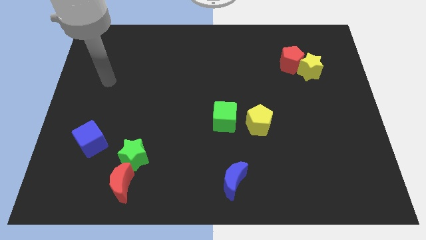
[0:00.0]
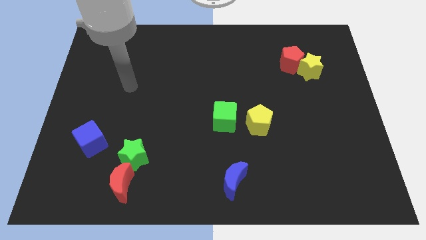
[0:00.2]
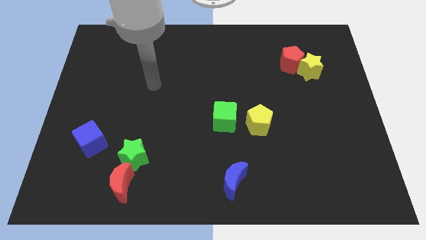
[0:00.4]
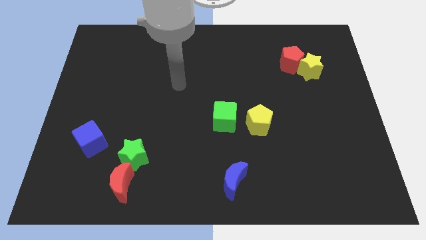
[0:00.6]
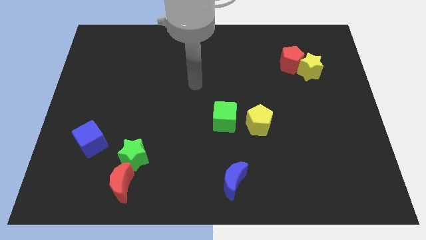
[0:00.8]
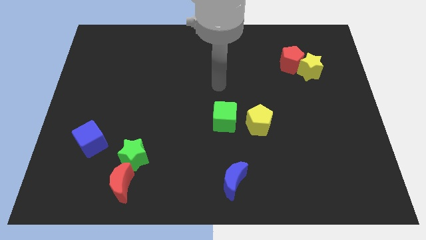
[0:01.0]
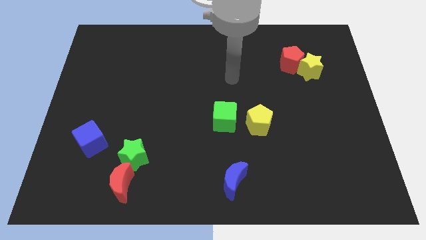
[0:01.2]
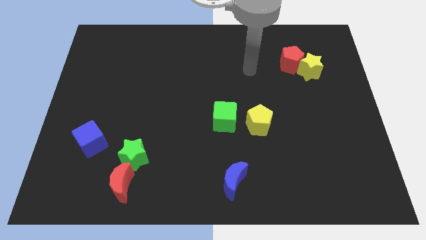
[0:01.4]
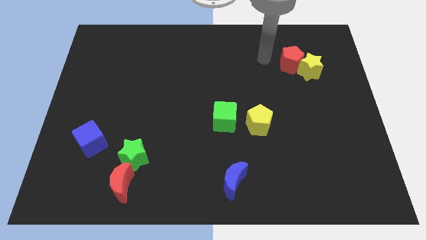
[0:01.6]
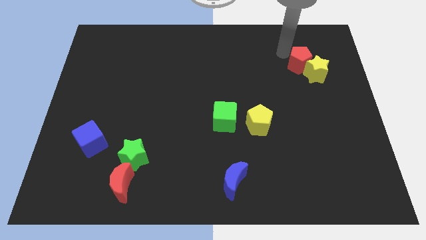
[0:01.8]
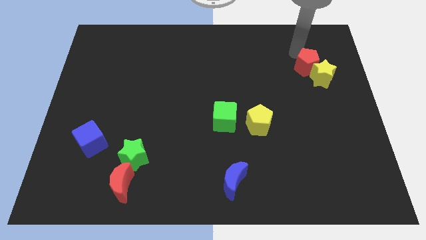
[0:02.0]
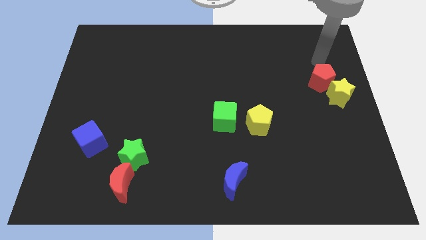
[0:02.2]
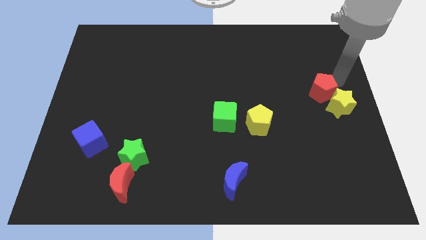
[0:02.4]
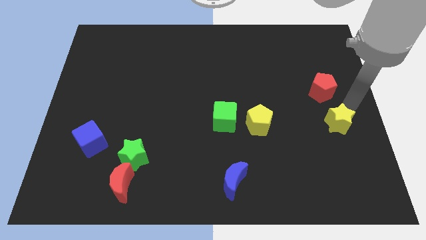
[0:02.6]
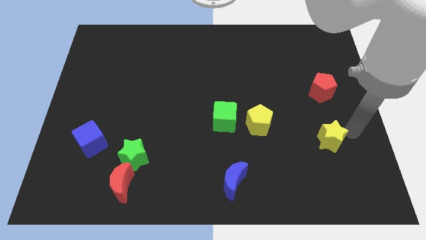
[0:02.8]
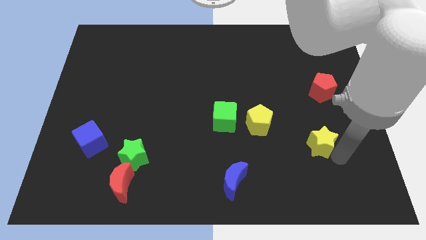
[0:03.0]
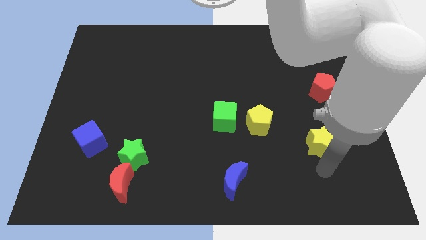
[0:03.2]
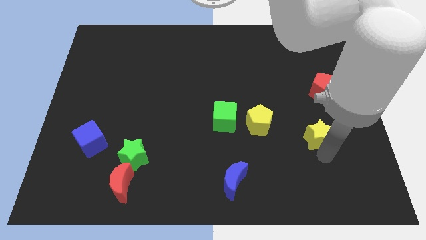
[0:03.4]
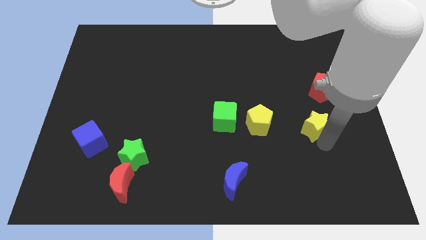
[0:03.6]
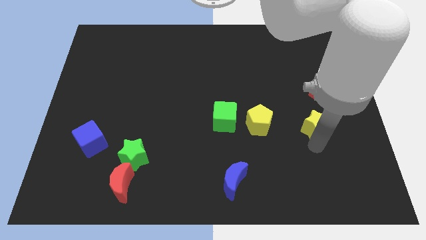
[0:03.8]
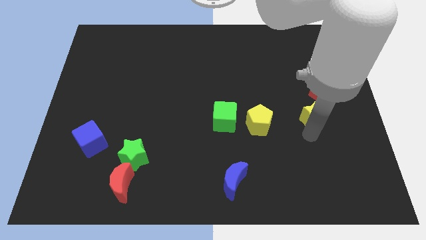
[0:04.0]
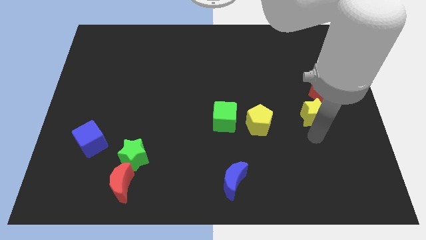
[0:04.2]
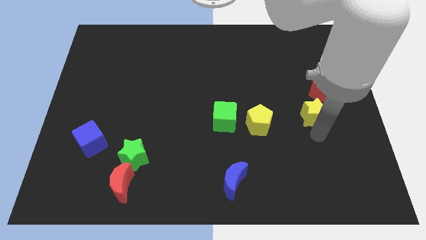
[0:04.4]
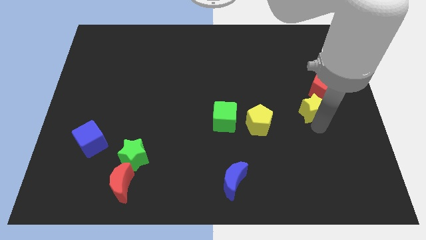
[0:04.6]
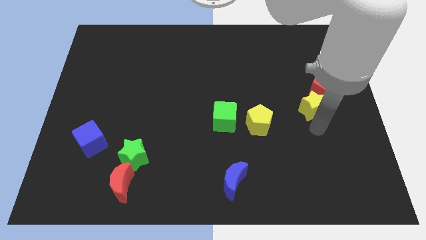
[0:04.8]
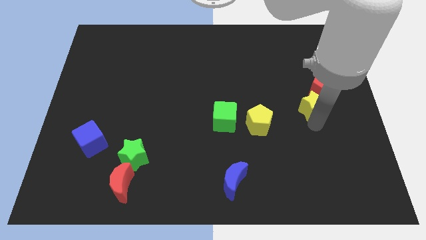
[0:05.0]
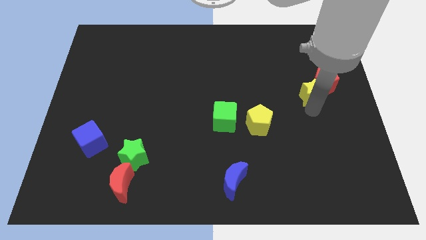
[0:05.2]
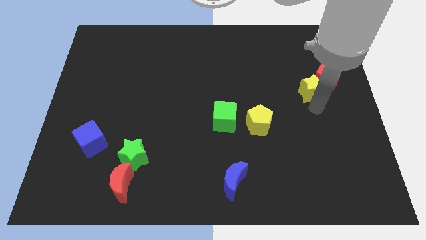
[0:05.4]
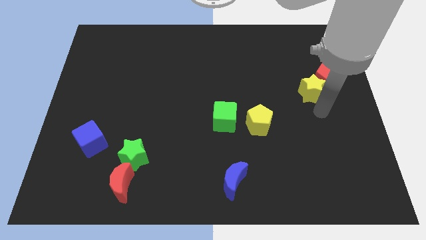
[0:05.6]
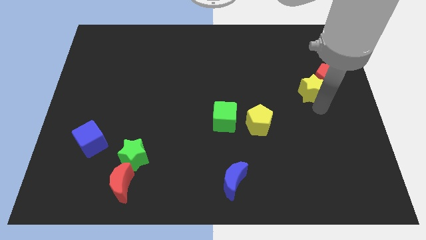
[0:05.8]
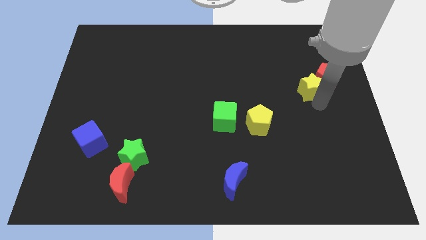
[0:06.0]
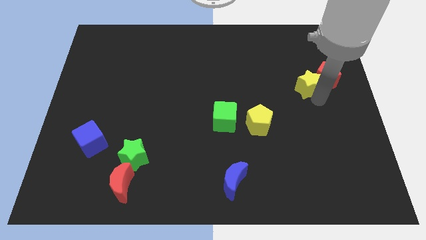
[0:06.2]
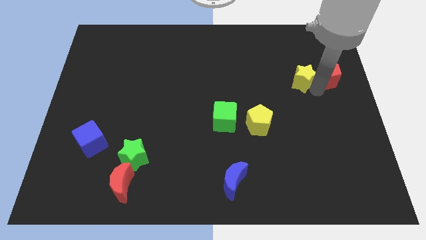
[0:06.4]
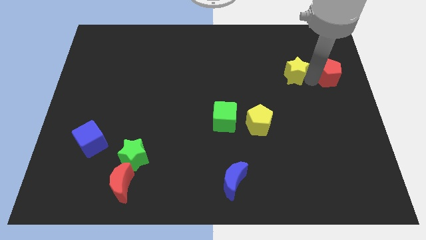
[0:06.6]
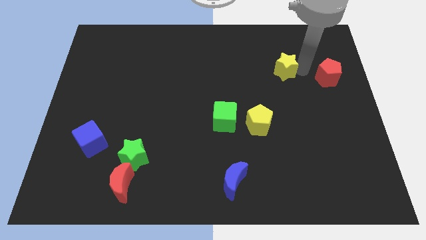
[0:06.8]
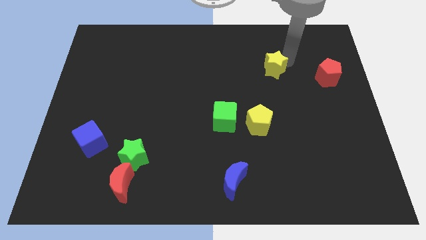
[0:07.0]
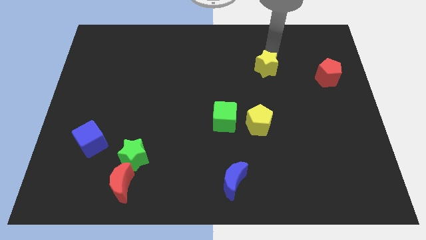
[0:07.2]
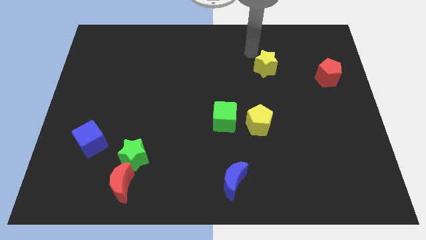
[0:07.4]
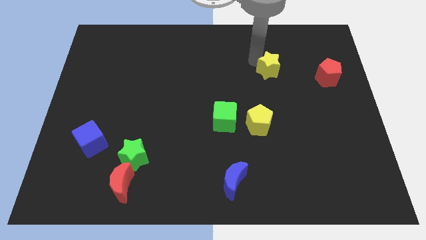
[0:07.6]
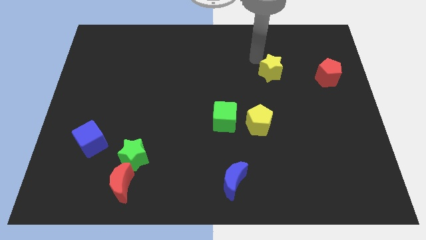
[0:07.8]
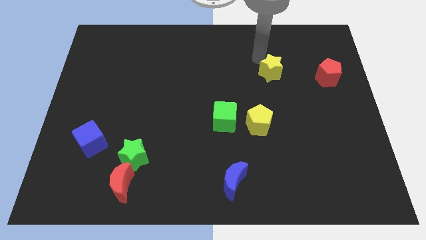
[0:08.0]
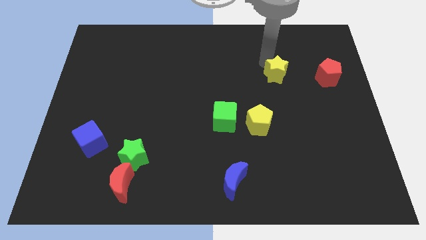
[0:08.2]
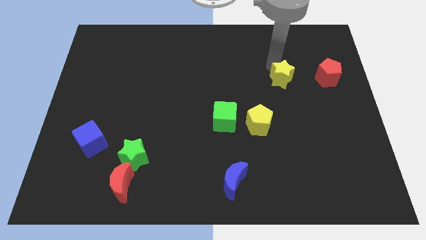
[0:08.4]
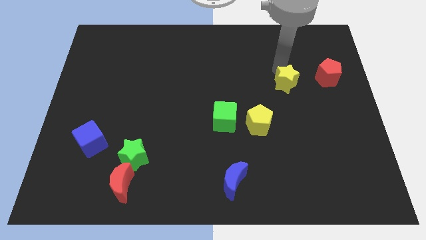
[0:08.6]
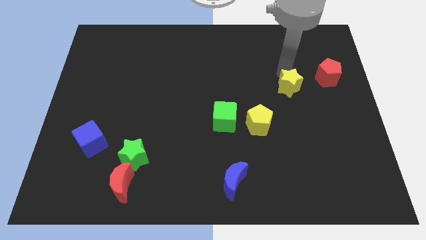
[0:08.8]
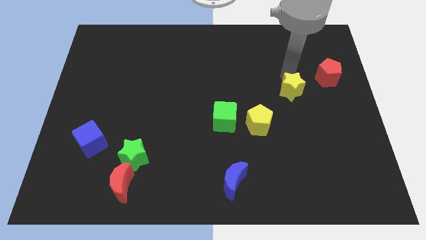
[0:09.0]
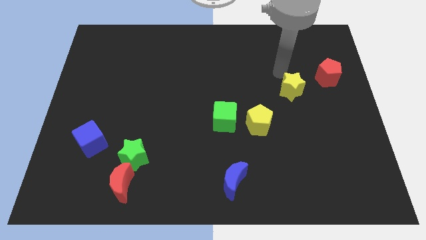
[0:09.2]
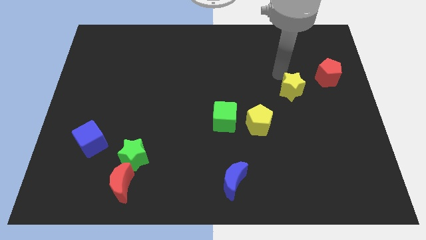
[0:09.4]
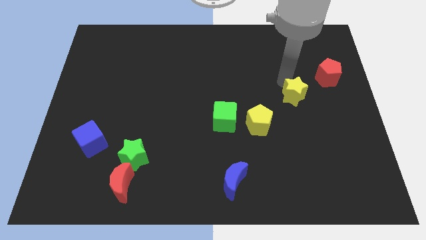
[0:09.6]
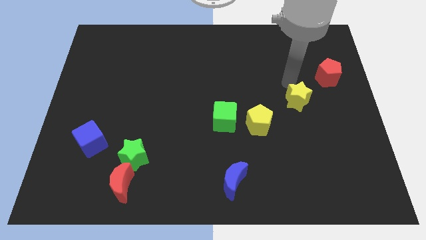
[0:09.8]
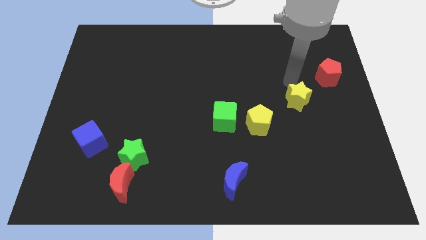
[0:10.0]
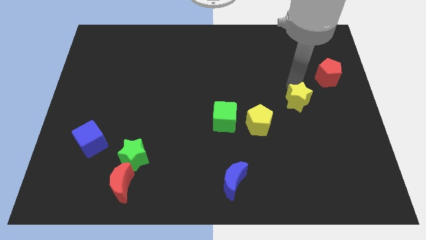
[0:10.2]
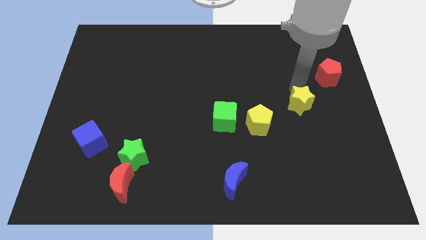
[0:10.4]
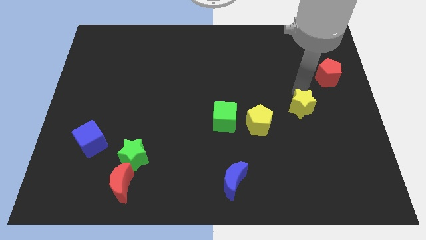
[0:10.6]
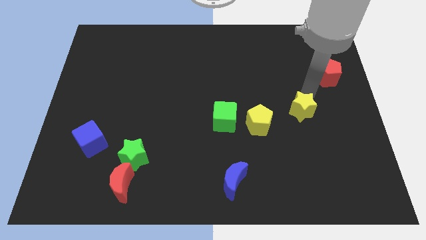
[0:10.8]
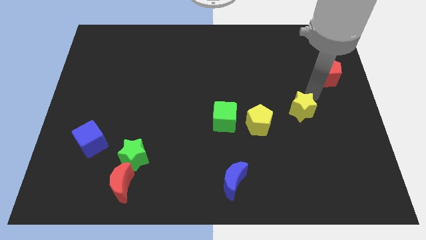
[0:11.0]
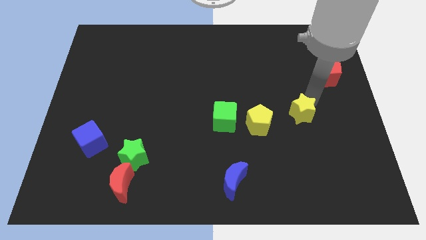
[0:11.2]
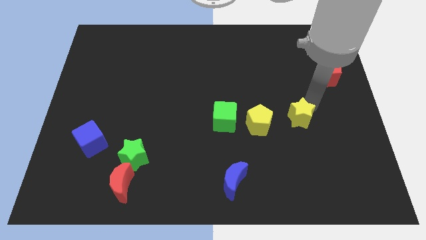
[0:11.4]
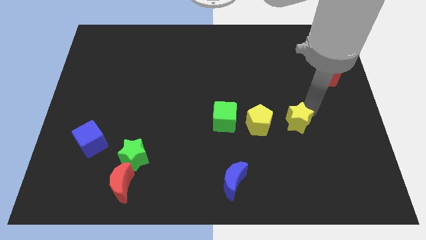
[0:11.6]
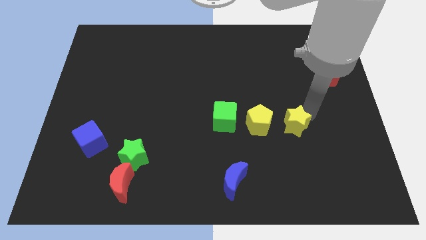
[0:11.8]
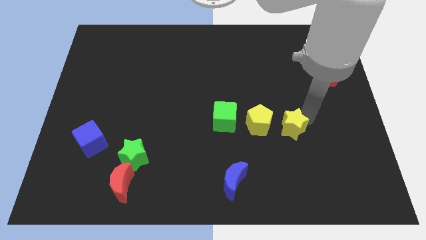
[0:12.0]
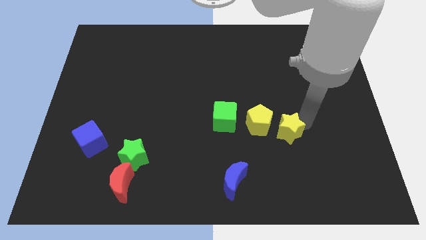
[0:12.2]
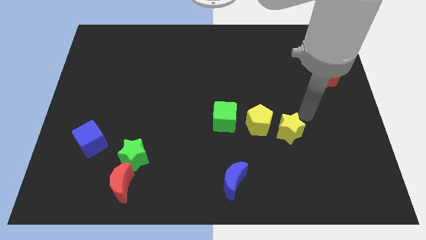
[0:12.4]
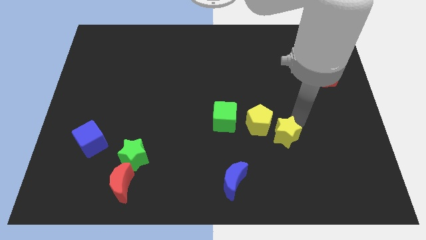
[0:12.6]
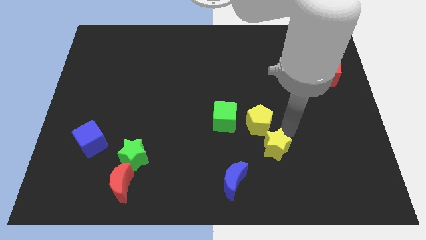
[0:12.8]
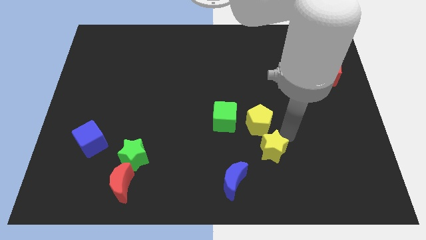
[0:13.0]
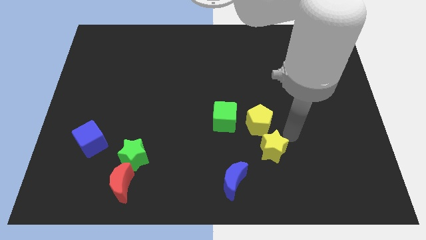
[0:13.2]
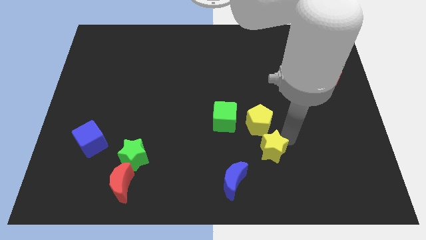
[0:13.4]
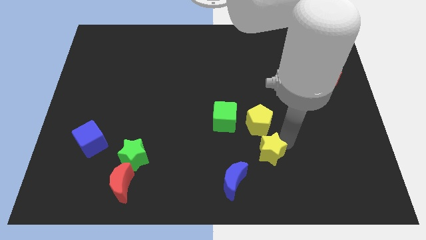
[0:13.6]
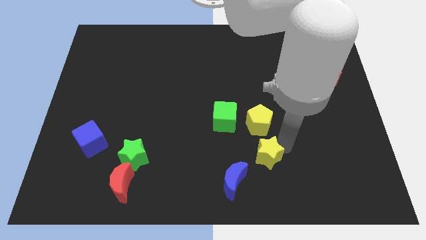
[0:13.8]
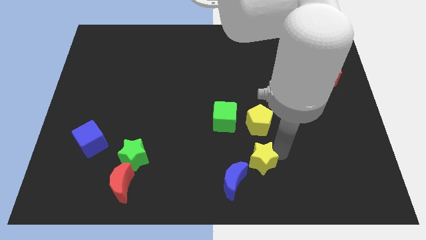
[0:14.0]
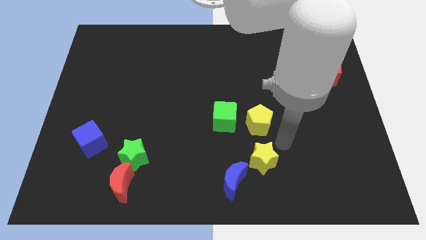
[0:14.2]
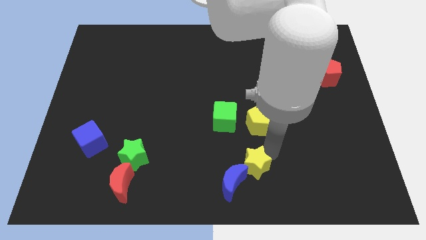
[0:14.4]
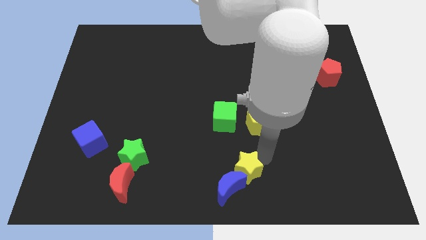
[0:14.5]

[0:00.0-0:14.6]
slide the yellow star next to the blue moon

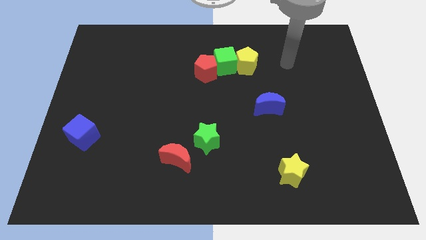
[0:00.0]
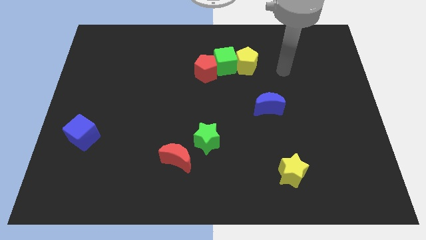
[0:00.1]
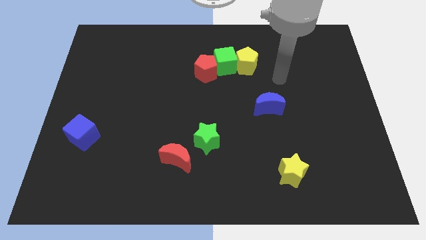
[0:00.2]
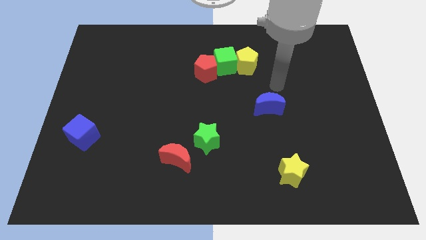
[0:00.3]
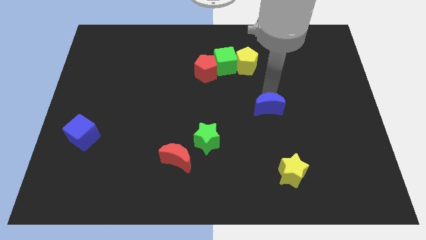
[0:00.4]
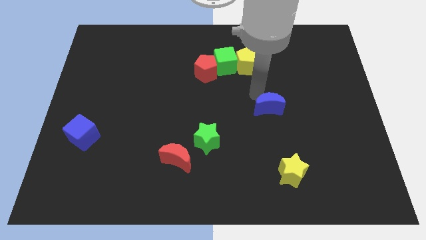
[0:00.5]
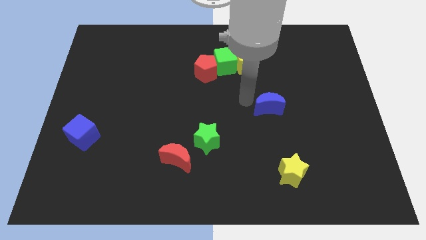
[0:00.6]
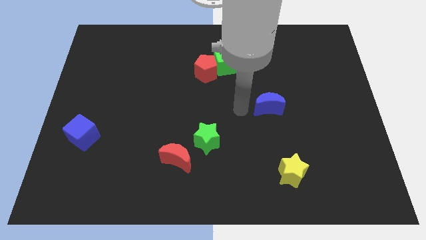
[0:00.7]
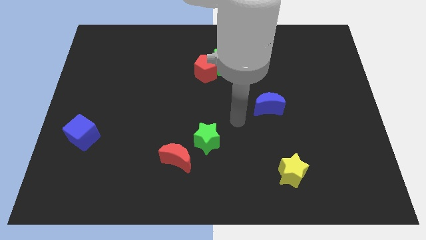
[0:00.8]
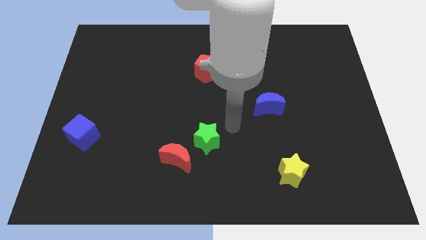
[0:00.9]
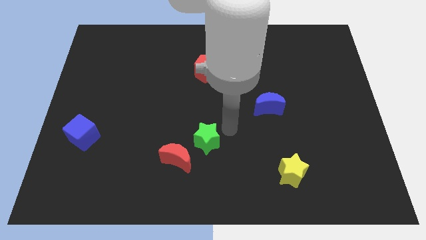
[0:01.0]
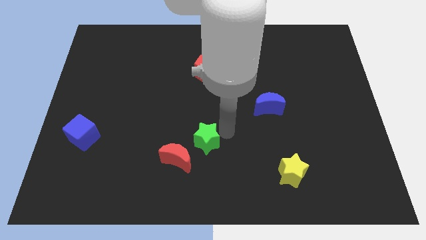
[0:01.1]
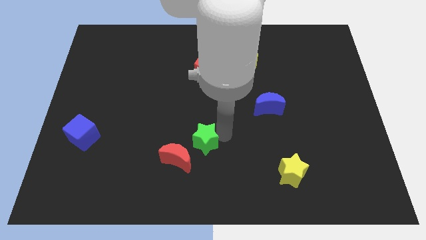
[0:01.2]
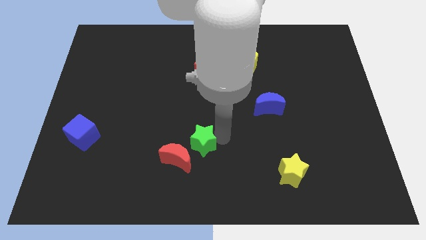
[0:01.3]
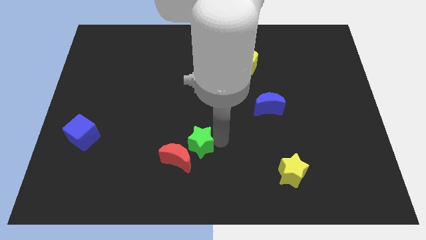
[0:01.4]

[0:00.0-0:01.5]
slide the green star to the red moon
